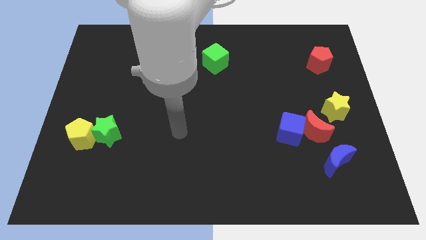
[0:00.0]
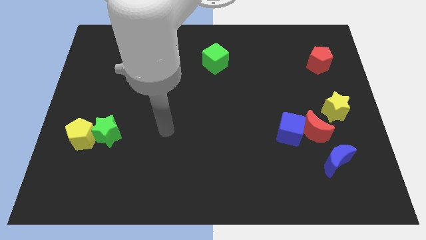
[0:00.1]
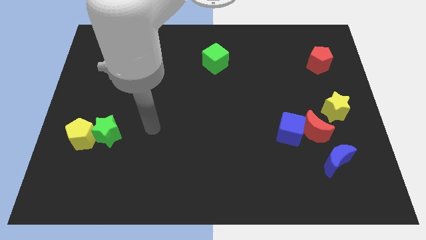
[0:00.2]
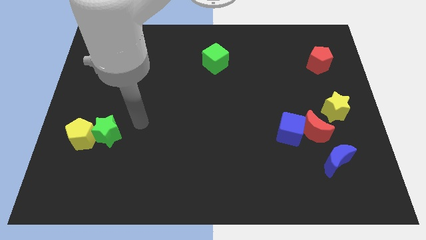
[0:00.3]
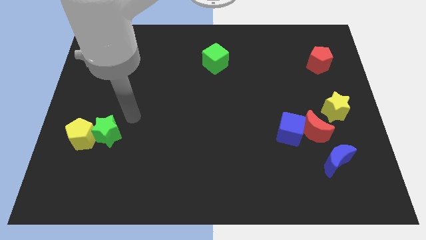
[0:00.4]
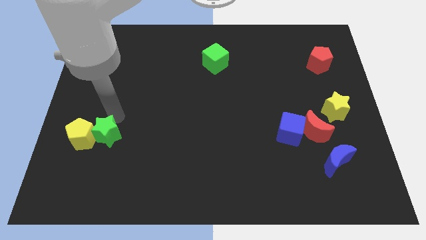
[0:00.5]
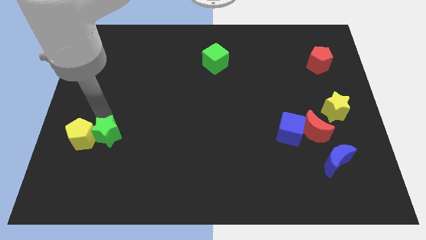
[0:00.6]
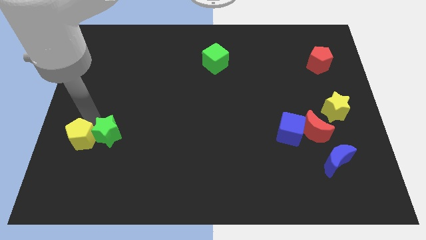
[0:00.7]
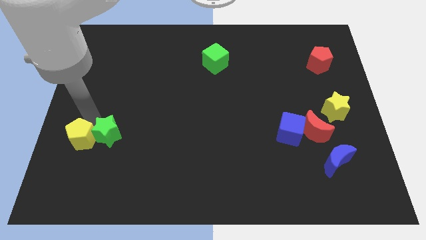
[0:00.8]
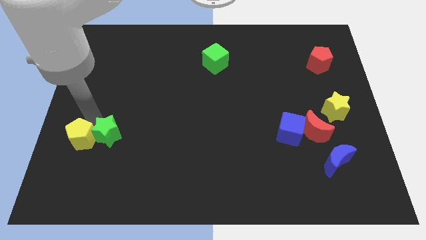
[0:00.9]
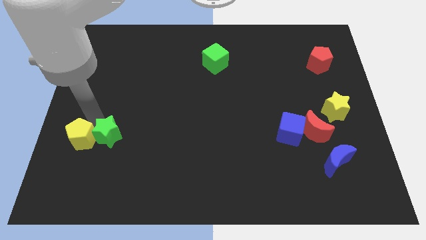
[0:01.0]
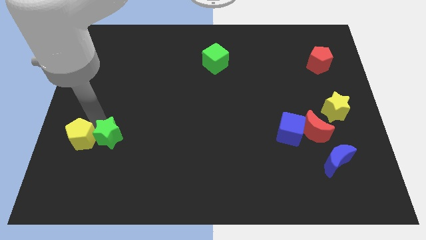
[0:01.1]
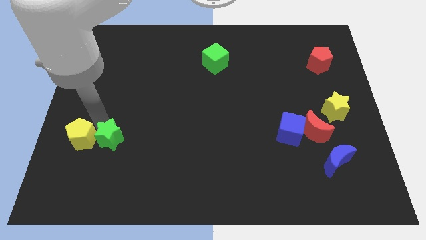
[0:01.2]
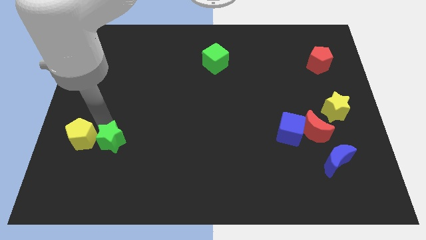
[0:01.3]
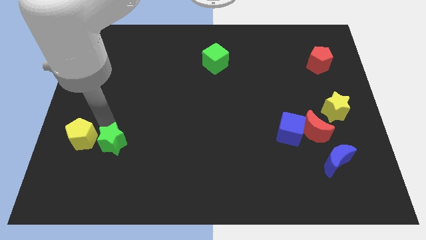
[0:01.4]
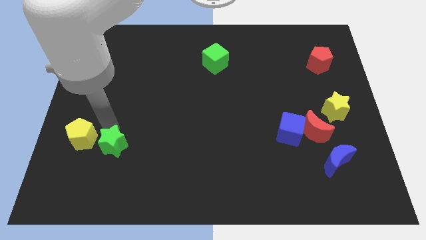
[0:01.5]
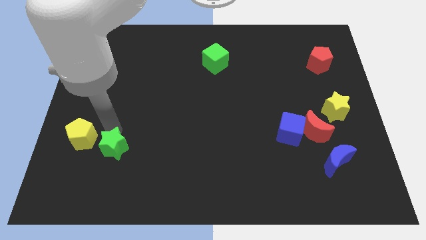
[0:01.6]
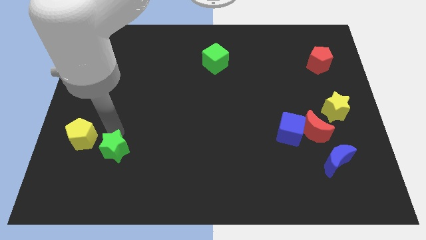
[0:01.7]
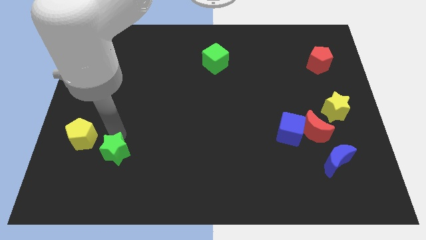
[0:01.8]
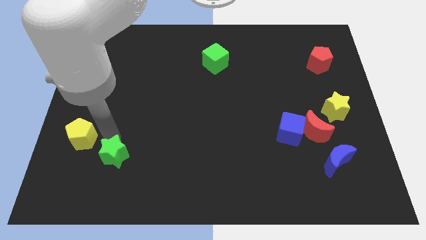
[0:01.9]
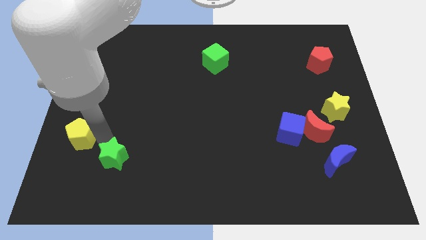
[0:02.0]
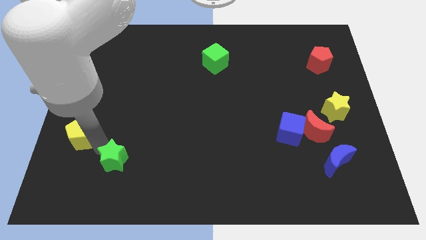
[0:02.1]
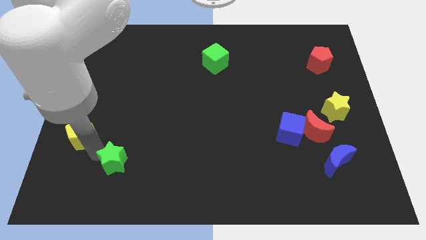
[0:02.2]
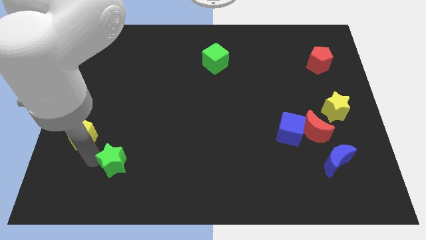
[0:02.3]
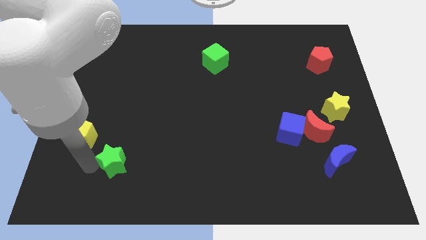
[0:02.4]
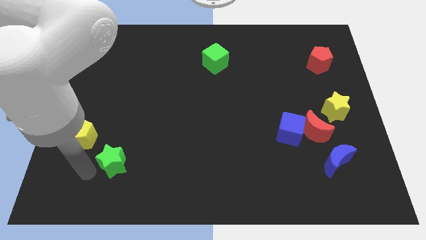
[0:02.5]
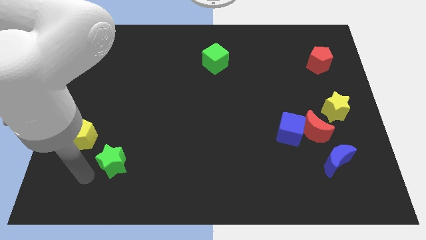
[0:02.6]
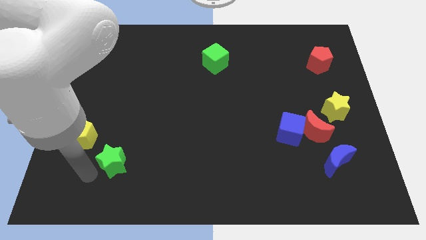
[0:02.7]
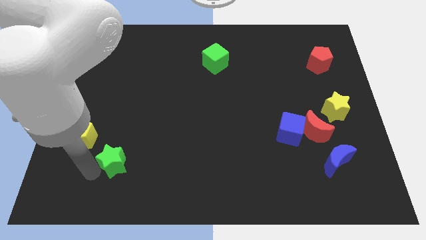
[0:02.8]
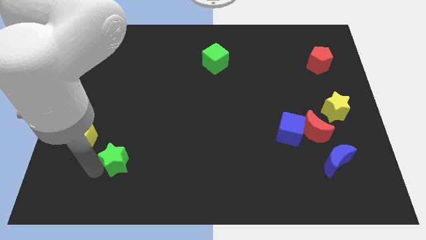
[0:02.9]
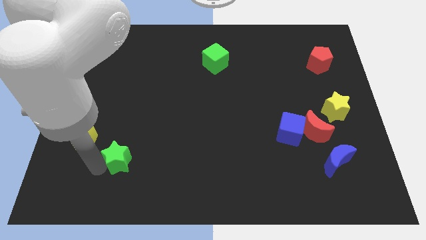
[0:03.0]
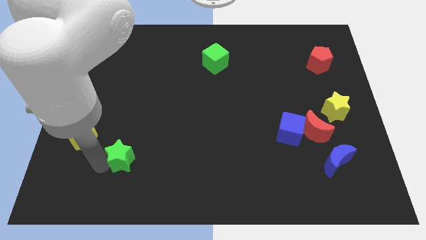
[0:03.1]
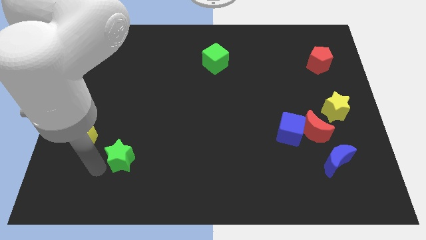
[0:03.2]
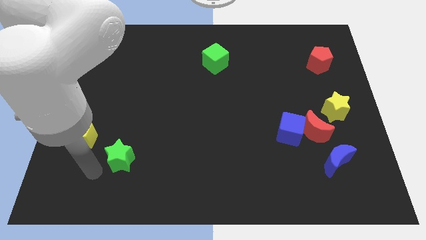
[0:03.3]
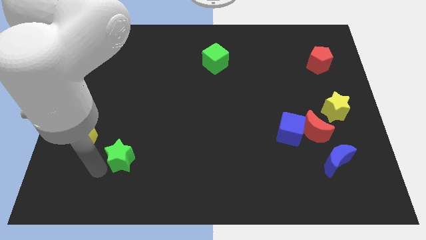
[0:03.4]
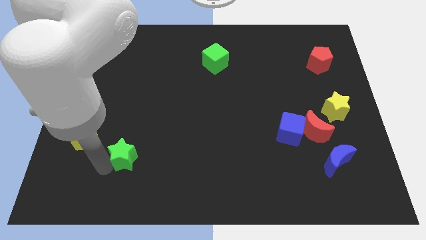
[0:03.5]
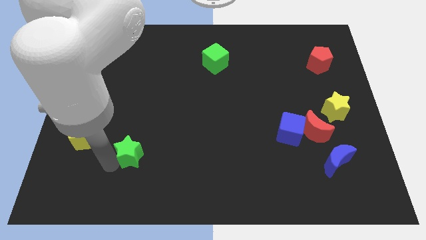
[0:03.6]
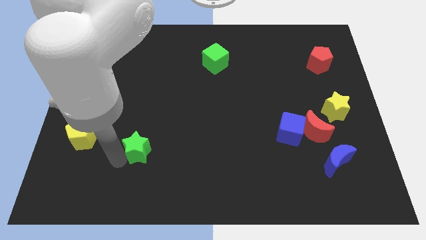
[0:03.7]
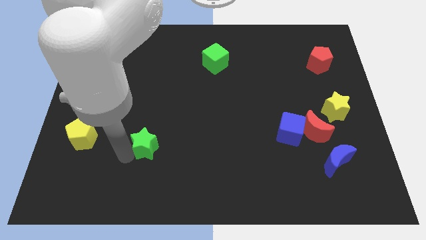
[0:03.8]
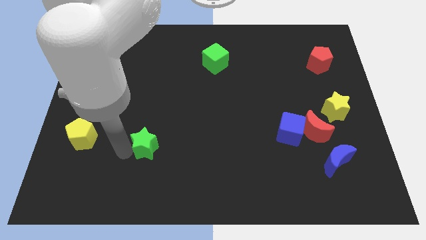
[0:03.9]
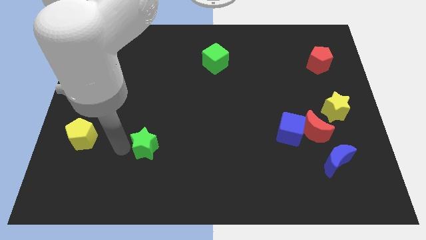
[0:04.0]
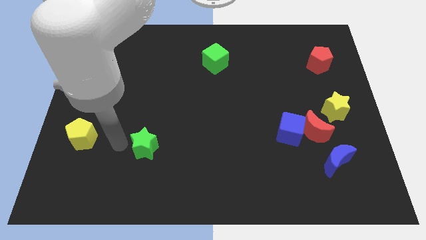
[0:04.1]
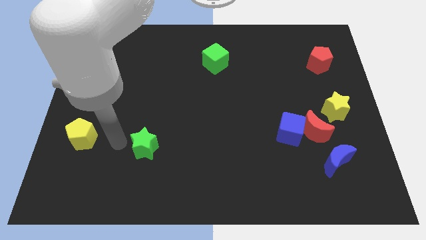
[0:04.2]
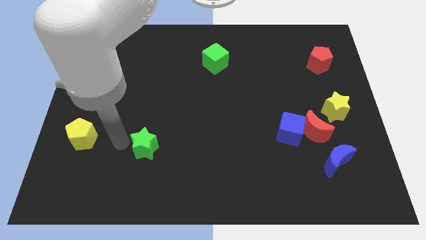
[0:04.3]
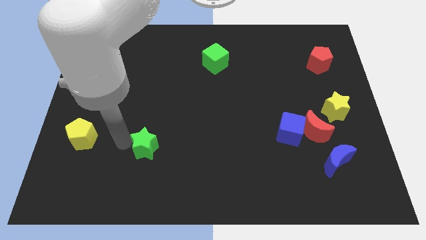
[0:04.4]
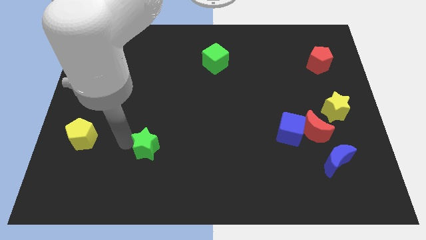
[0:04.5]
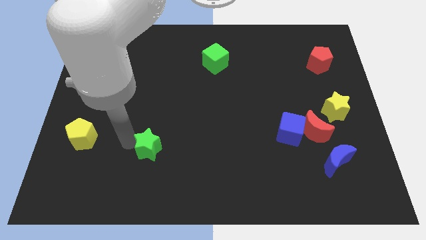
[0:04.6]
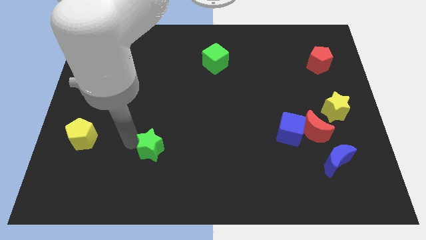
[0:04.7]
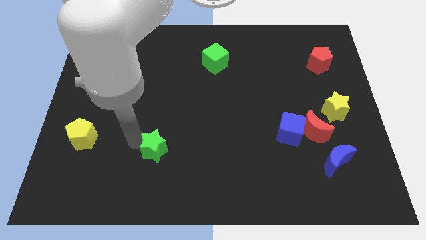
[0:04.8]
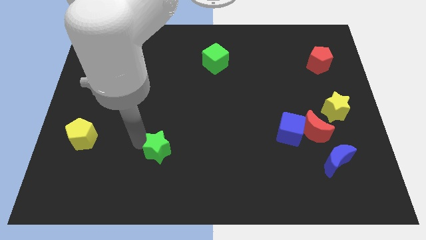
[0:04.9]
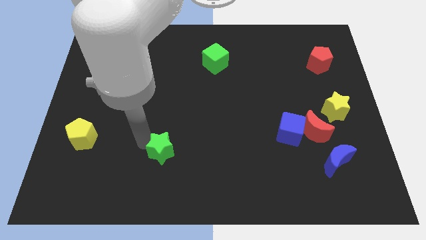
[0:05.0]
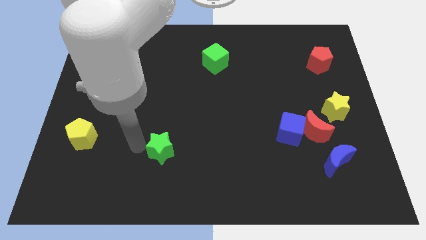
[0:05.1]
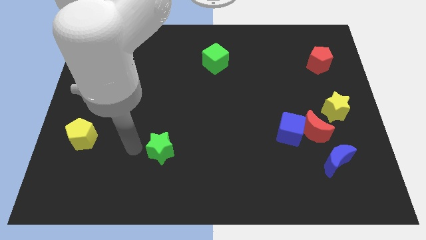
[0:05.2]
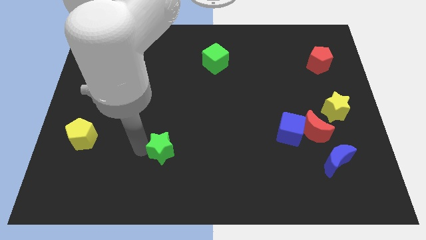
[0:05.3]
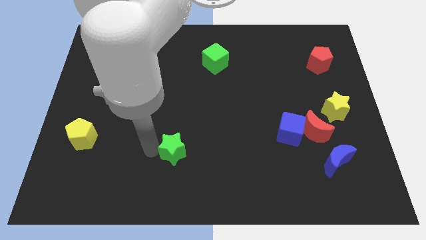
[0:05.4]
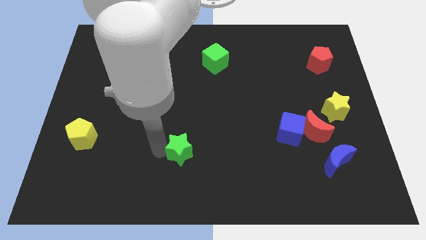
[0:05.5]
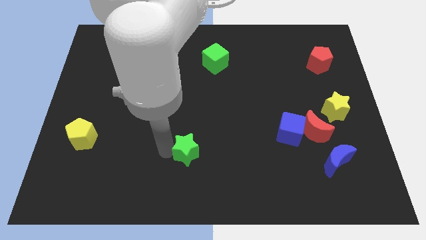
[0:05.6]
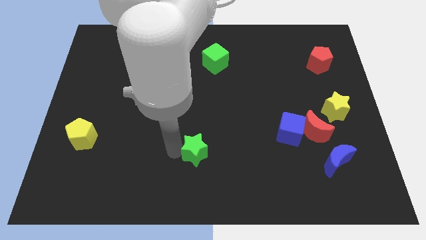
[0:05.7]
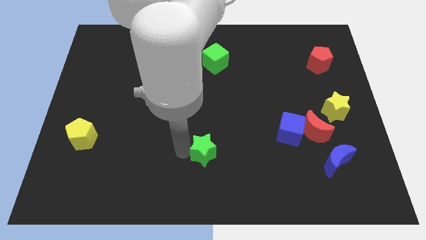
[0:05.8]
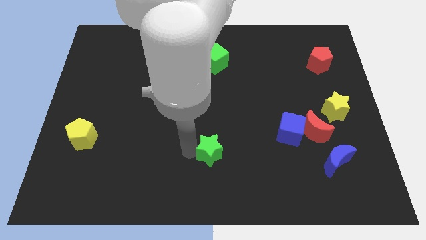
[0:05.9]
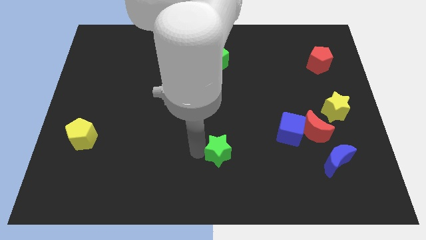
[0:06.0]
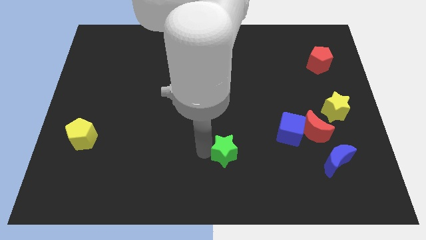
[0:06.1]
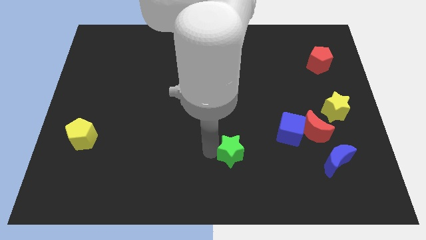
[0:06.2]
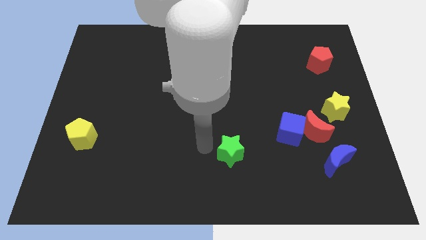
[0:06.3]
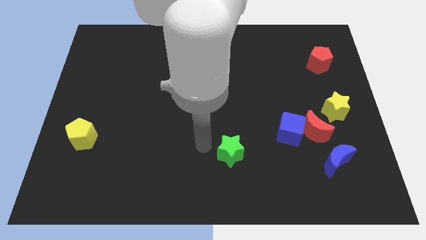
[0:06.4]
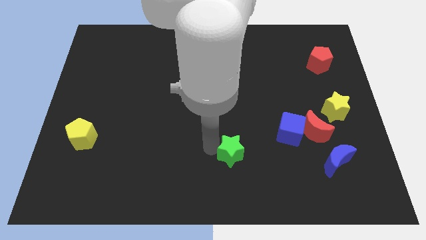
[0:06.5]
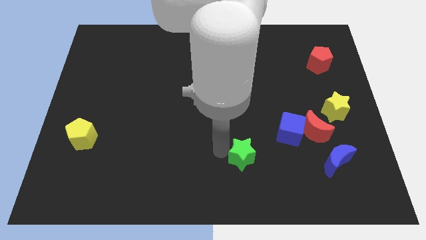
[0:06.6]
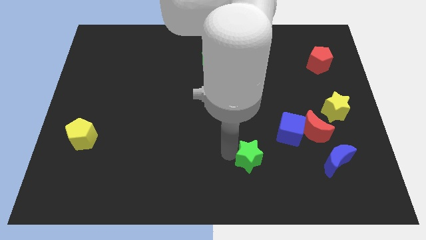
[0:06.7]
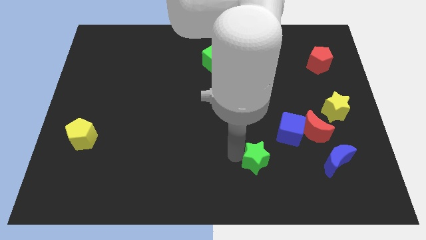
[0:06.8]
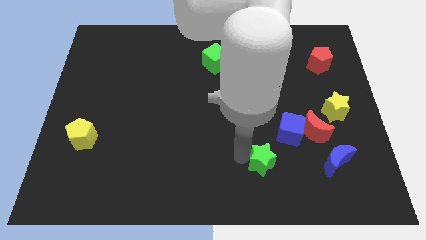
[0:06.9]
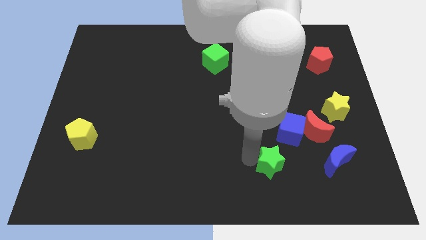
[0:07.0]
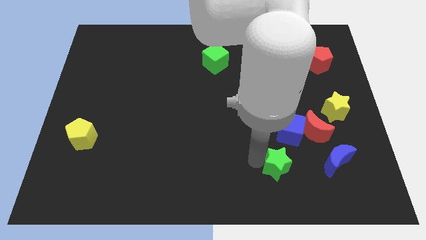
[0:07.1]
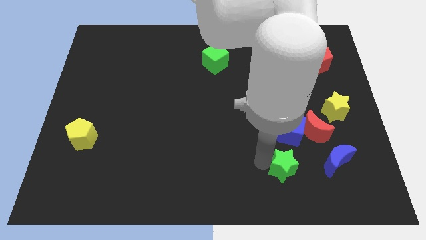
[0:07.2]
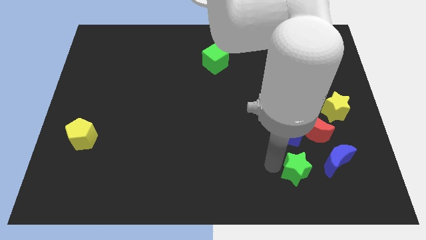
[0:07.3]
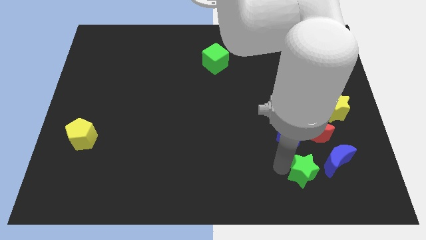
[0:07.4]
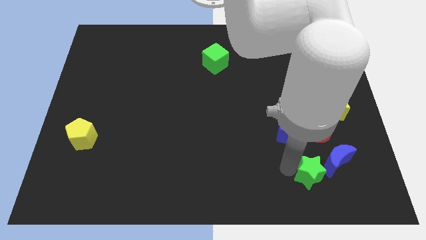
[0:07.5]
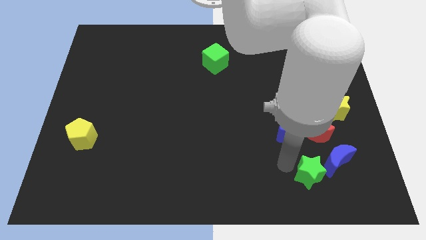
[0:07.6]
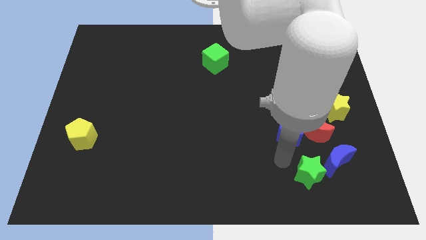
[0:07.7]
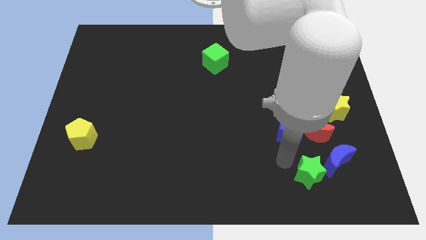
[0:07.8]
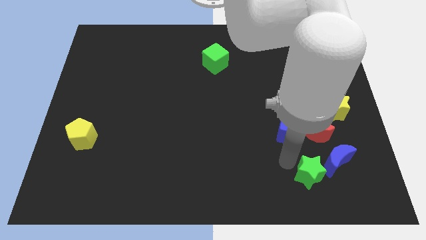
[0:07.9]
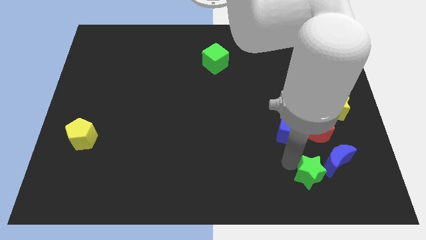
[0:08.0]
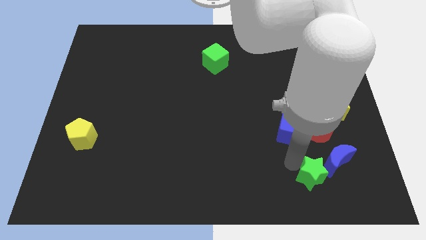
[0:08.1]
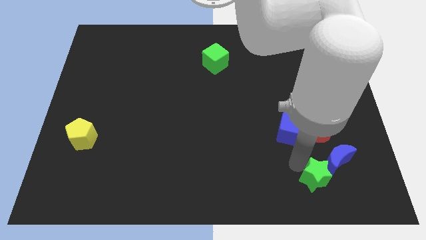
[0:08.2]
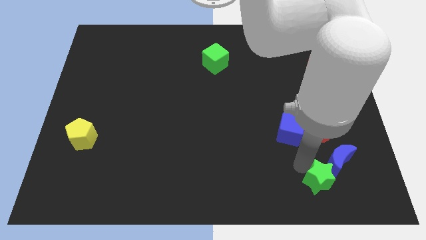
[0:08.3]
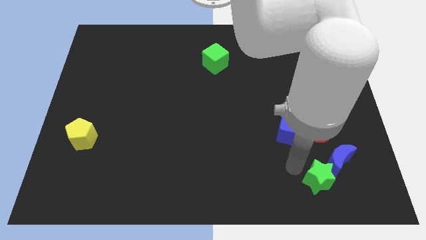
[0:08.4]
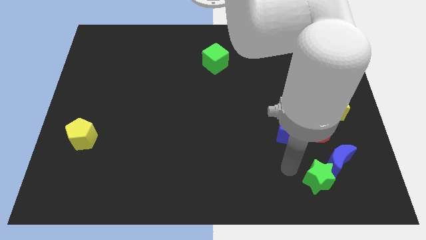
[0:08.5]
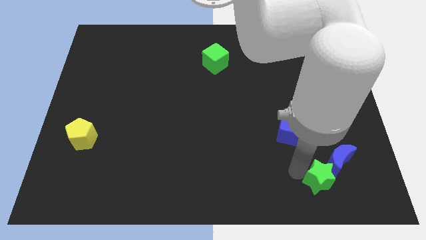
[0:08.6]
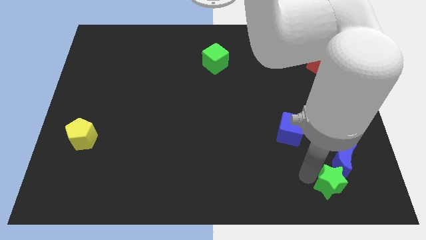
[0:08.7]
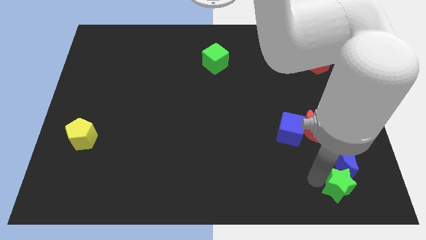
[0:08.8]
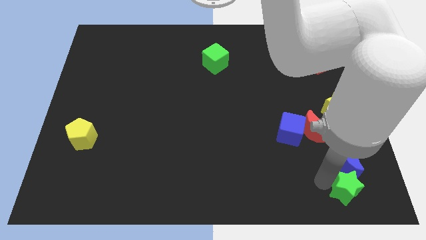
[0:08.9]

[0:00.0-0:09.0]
move the green star to the bottom right of the board
